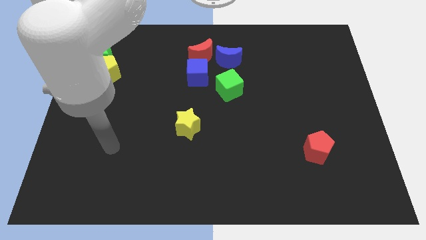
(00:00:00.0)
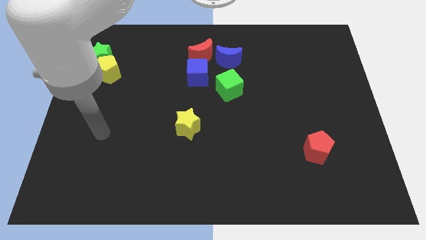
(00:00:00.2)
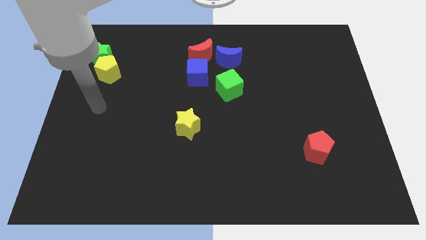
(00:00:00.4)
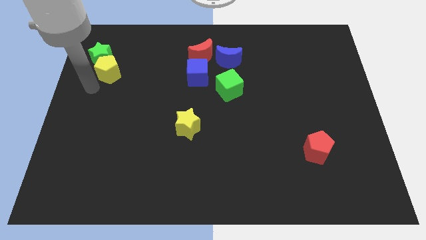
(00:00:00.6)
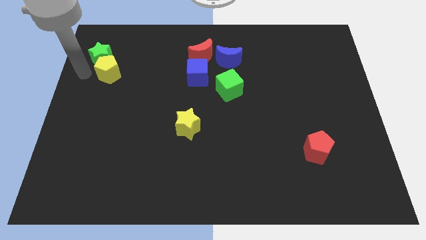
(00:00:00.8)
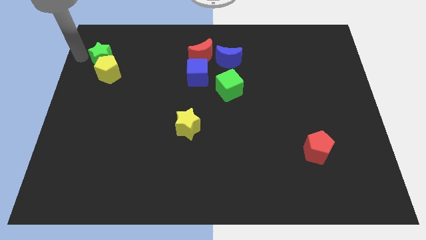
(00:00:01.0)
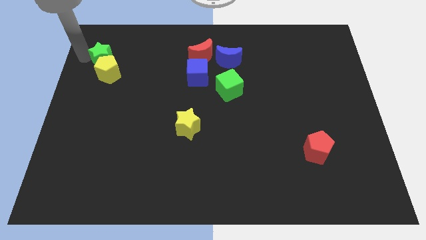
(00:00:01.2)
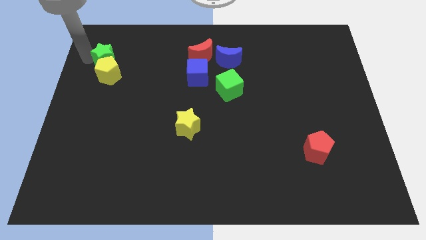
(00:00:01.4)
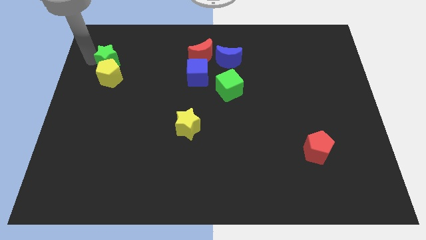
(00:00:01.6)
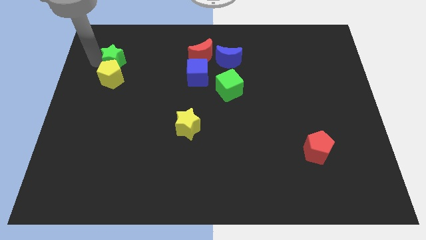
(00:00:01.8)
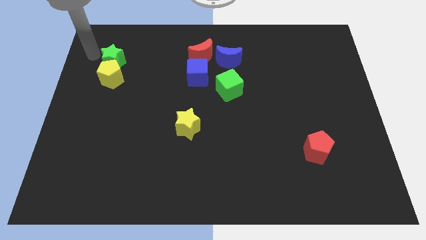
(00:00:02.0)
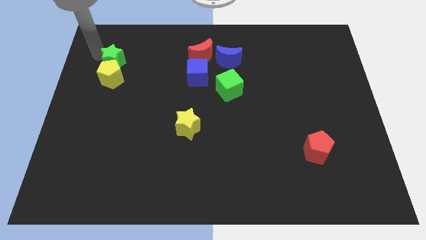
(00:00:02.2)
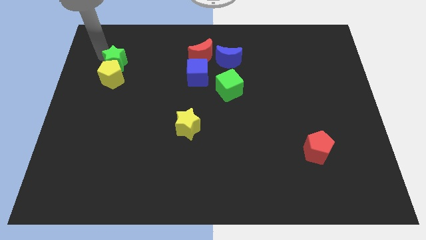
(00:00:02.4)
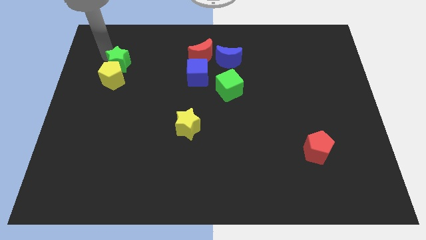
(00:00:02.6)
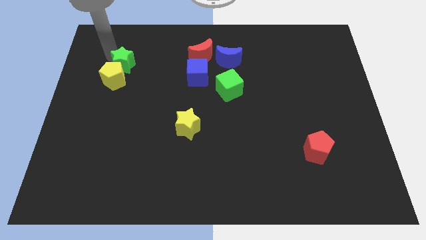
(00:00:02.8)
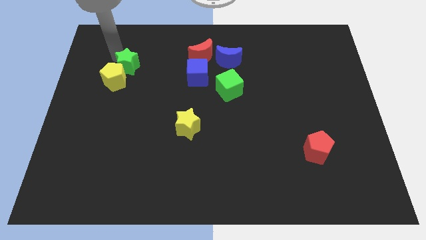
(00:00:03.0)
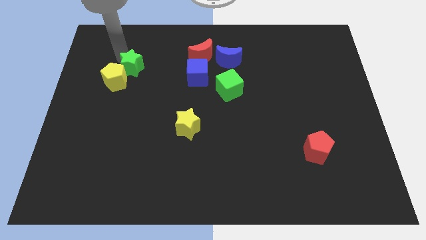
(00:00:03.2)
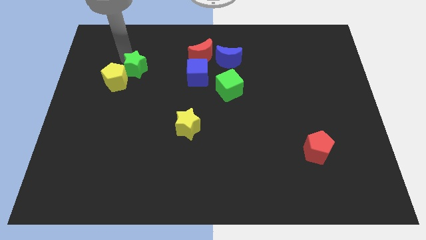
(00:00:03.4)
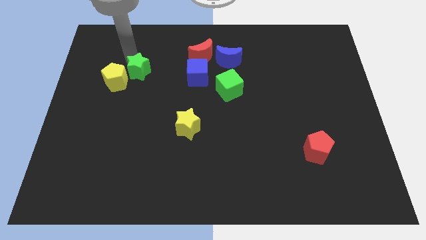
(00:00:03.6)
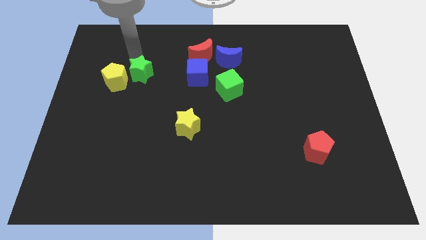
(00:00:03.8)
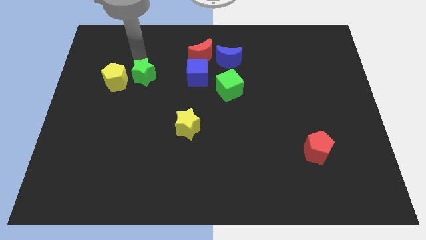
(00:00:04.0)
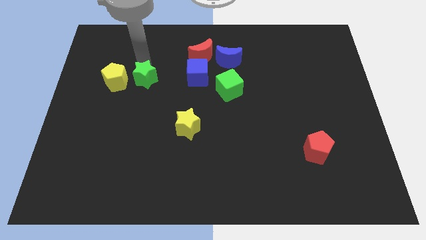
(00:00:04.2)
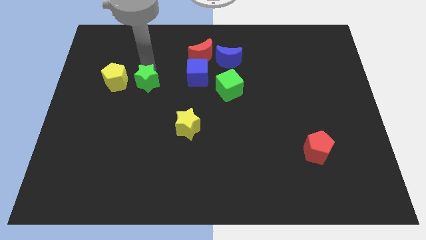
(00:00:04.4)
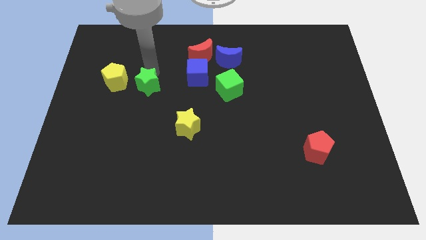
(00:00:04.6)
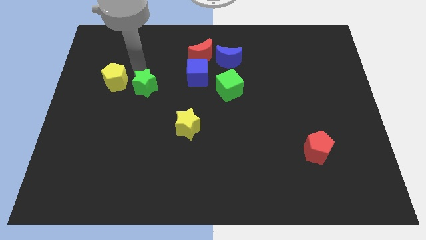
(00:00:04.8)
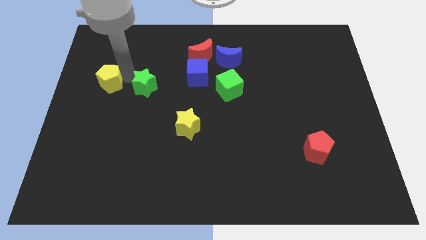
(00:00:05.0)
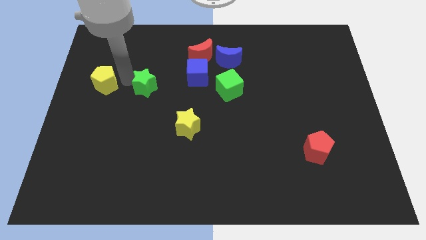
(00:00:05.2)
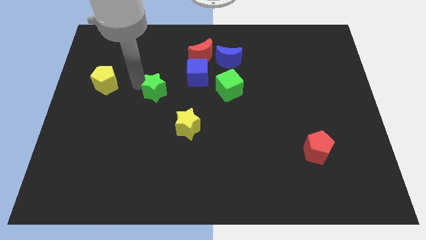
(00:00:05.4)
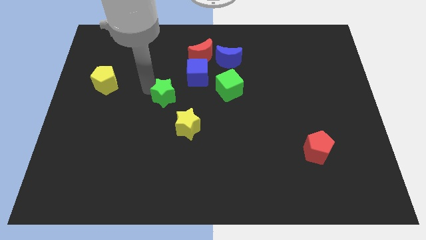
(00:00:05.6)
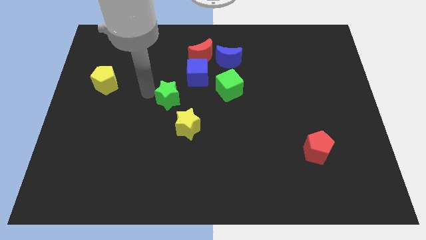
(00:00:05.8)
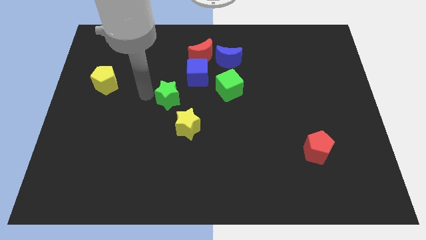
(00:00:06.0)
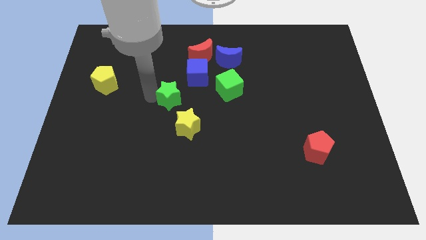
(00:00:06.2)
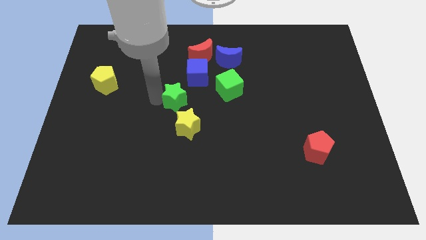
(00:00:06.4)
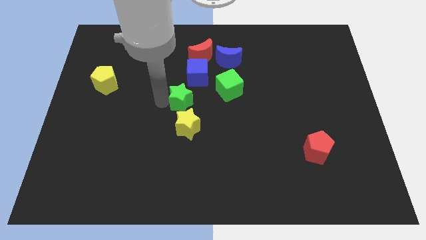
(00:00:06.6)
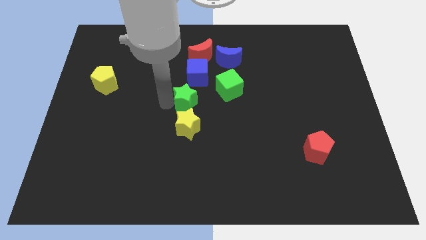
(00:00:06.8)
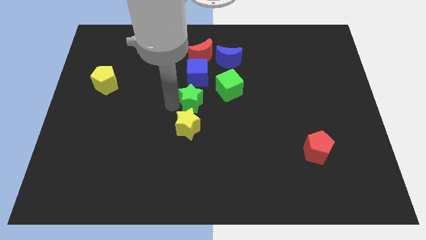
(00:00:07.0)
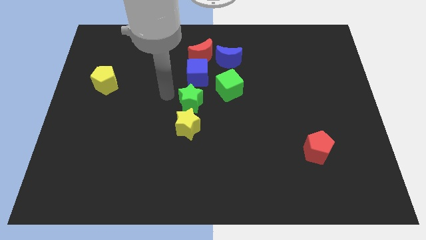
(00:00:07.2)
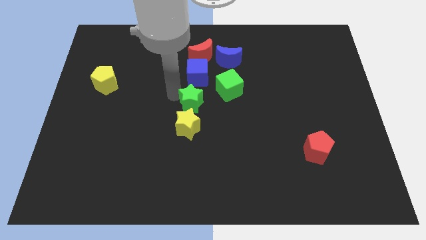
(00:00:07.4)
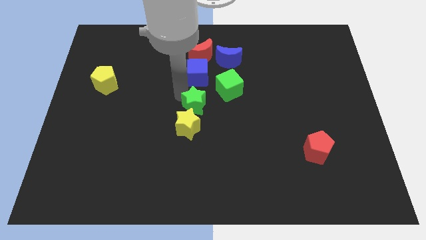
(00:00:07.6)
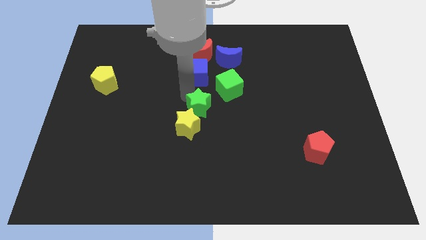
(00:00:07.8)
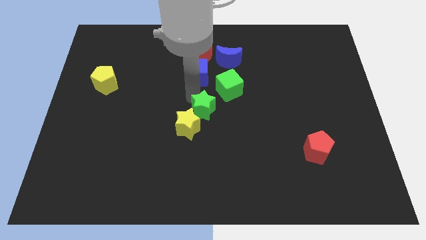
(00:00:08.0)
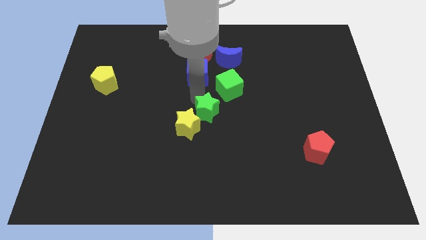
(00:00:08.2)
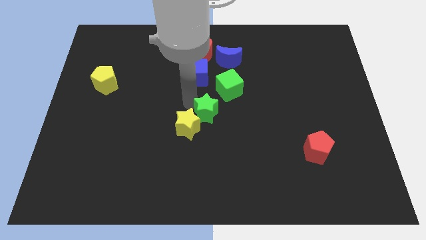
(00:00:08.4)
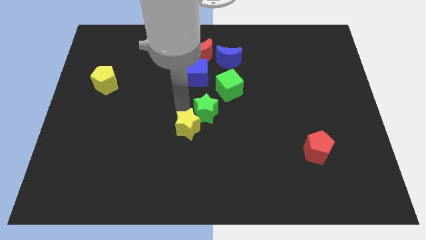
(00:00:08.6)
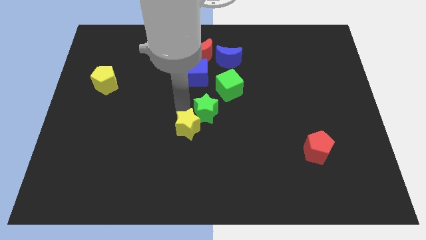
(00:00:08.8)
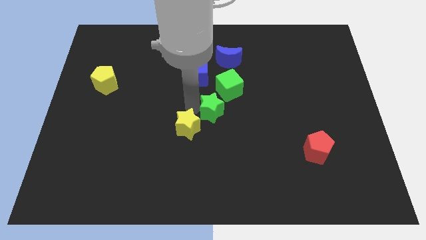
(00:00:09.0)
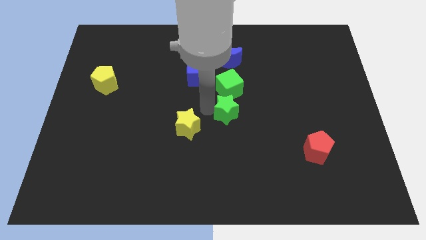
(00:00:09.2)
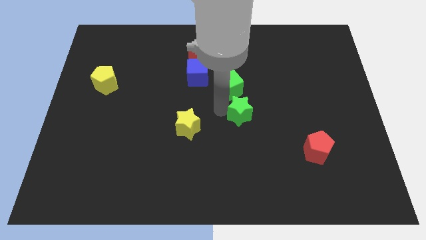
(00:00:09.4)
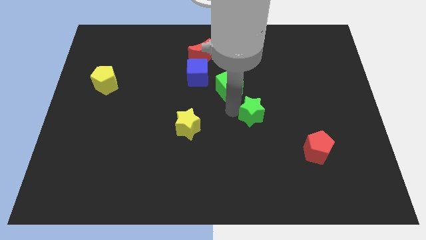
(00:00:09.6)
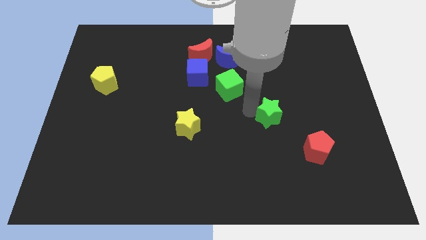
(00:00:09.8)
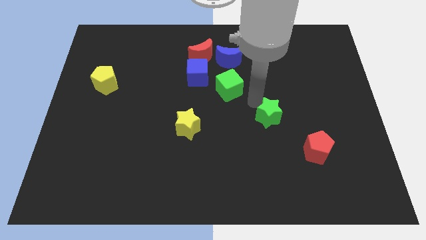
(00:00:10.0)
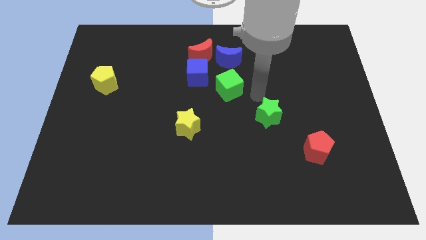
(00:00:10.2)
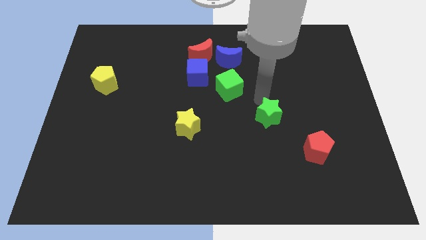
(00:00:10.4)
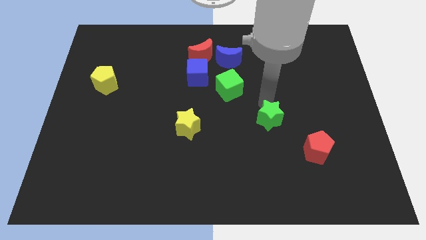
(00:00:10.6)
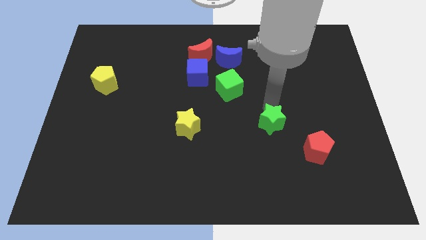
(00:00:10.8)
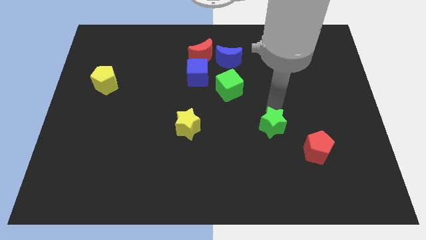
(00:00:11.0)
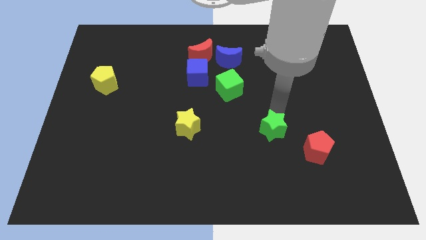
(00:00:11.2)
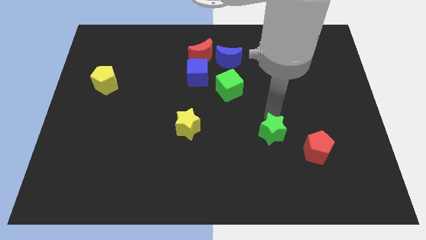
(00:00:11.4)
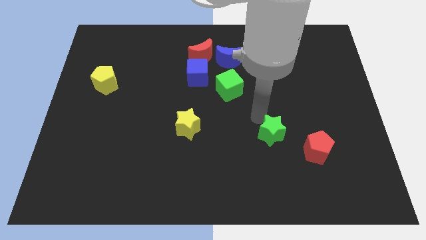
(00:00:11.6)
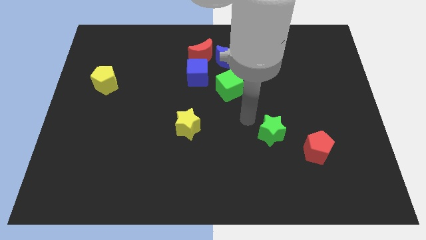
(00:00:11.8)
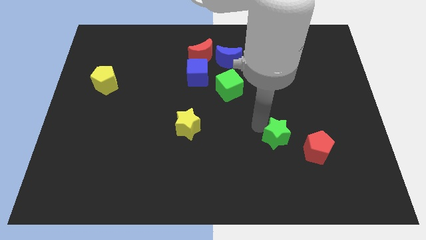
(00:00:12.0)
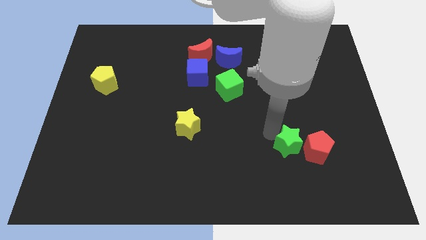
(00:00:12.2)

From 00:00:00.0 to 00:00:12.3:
push the green star towards the red pentagon
